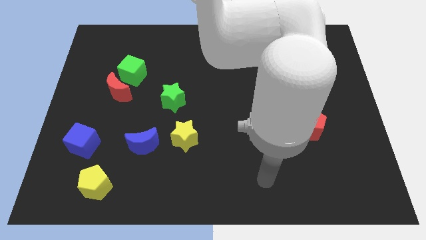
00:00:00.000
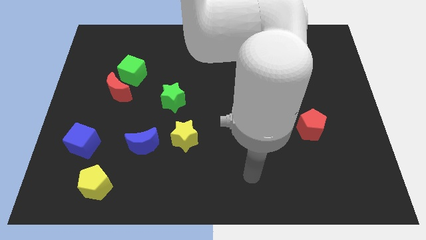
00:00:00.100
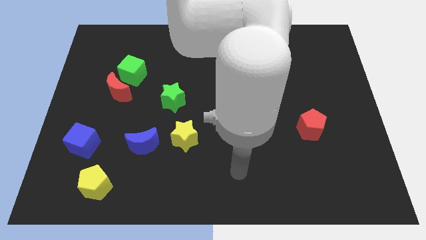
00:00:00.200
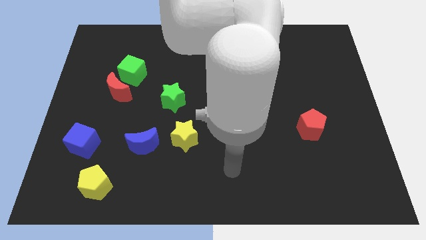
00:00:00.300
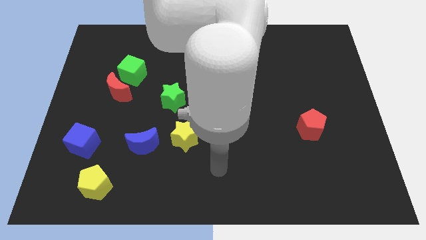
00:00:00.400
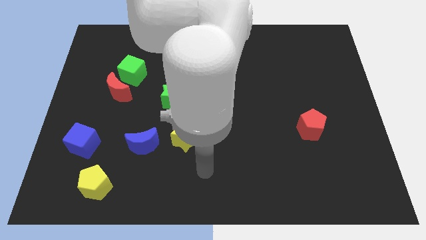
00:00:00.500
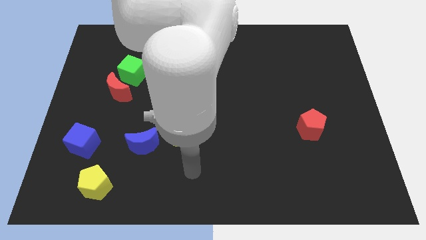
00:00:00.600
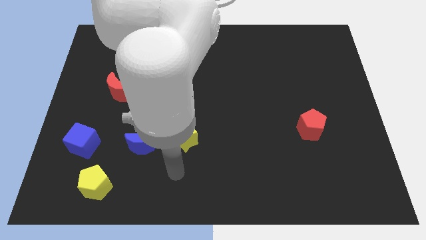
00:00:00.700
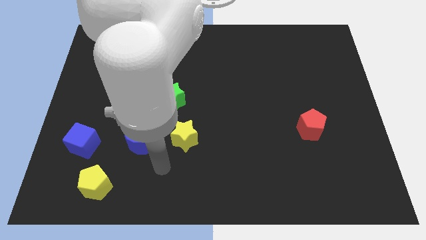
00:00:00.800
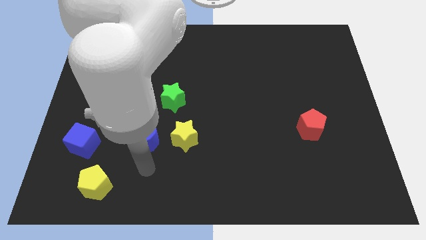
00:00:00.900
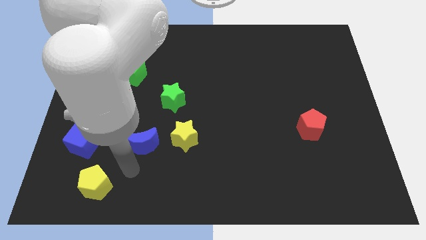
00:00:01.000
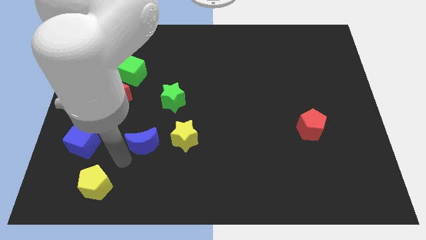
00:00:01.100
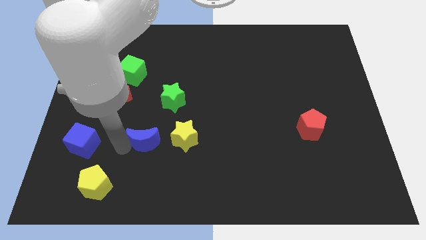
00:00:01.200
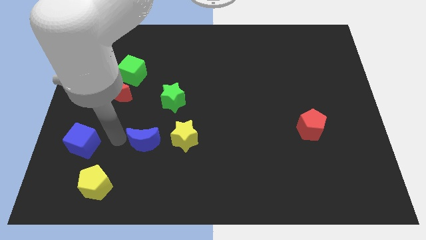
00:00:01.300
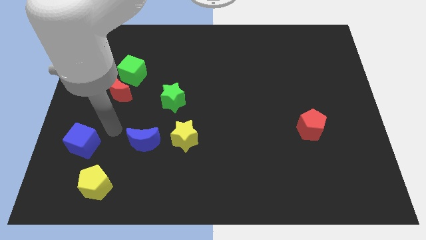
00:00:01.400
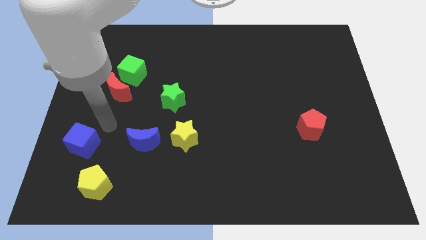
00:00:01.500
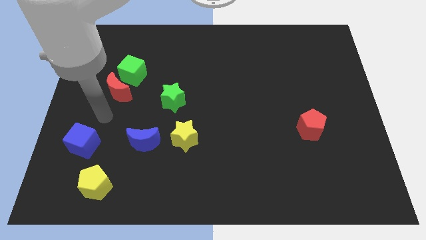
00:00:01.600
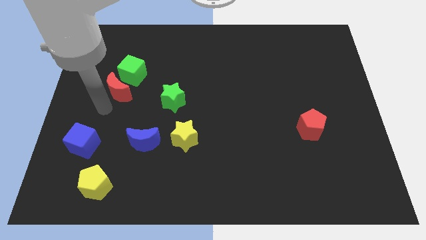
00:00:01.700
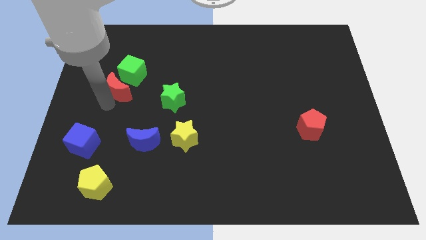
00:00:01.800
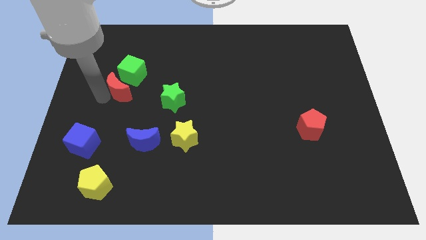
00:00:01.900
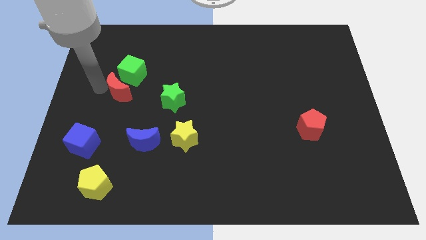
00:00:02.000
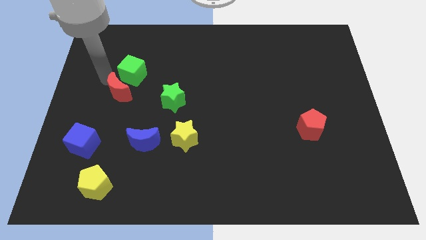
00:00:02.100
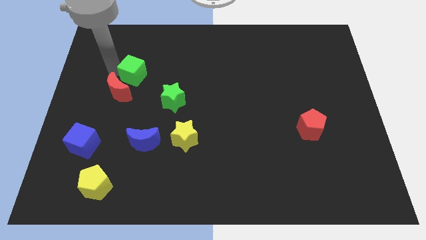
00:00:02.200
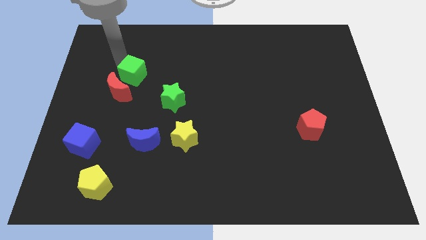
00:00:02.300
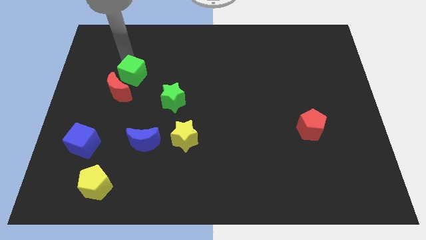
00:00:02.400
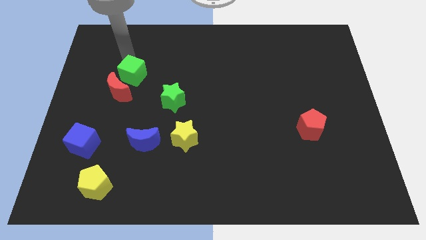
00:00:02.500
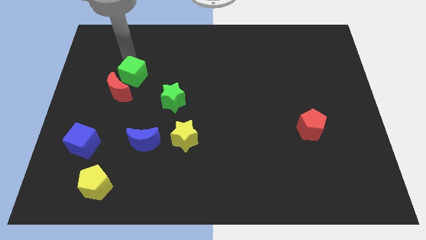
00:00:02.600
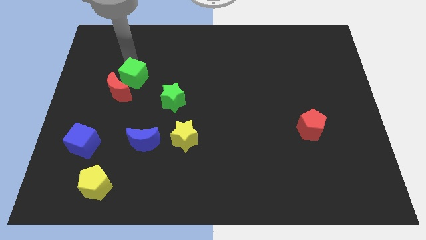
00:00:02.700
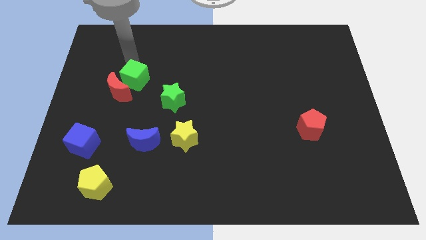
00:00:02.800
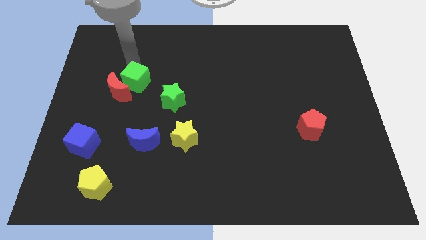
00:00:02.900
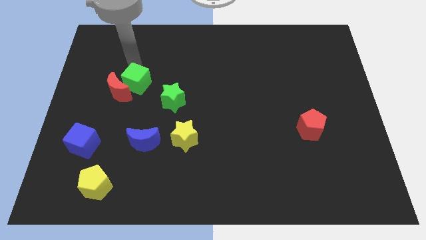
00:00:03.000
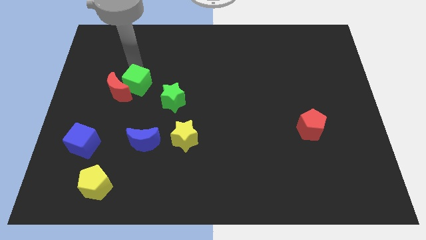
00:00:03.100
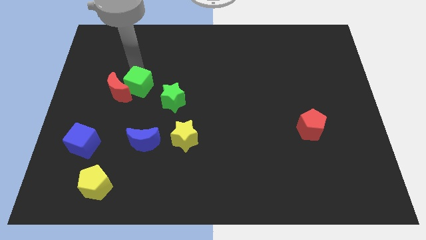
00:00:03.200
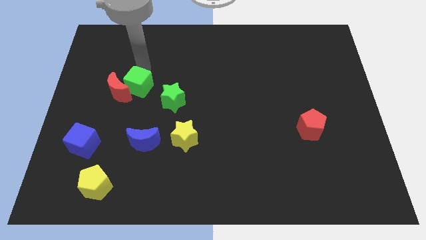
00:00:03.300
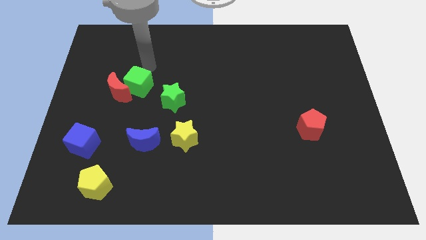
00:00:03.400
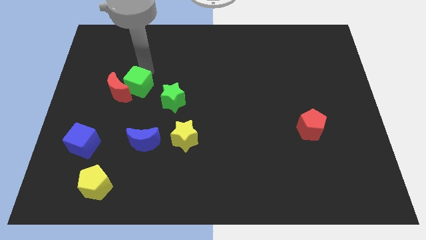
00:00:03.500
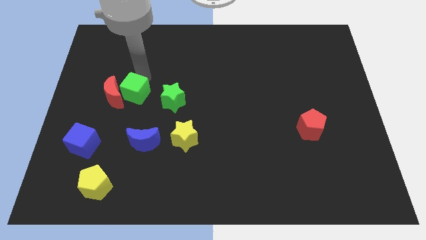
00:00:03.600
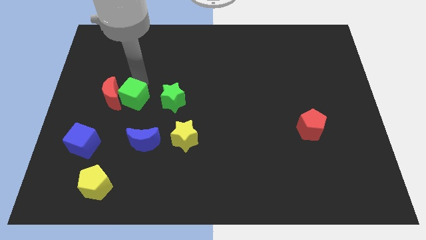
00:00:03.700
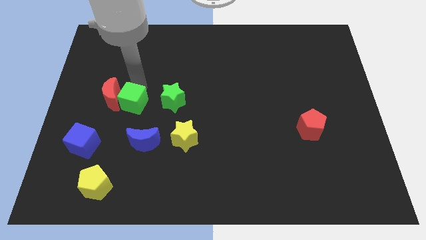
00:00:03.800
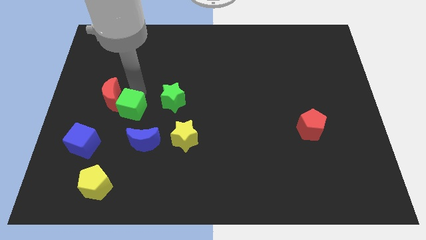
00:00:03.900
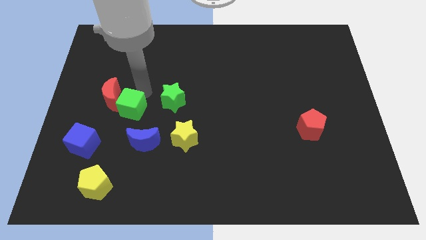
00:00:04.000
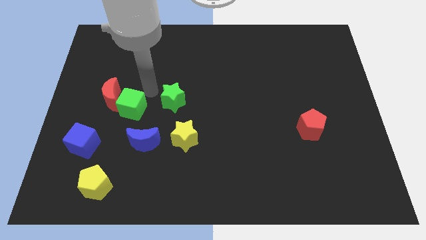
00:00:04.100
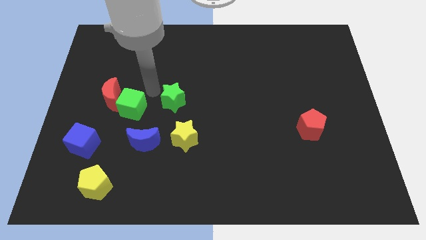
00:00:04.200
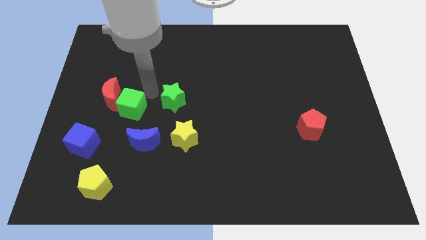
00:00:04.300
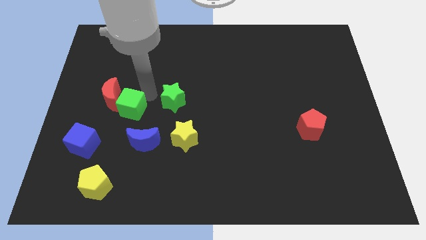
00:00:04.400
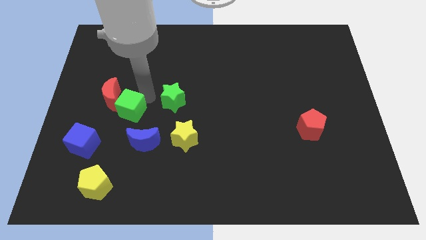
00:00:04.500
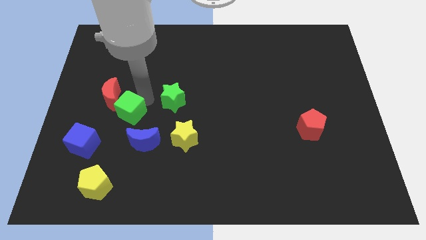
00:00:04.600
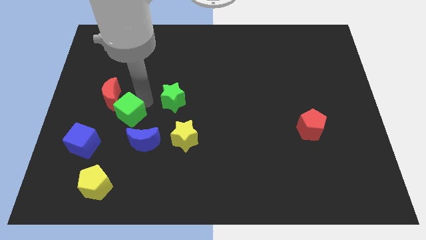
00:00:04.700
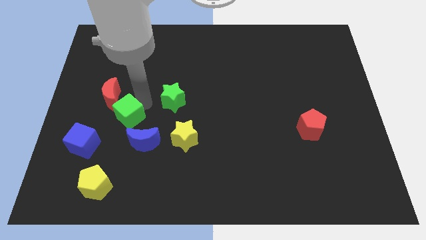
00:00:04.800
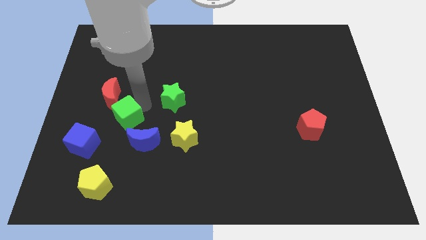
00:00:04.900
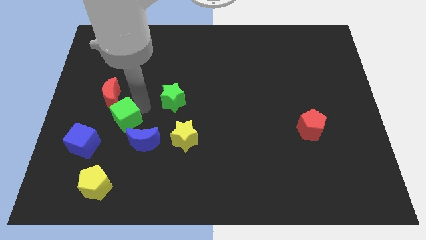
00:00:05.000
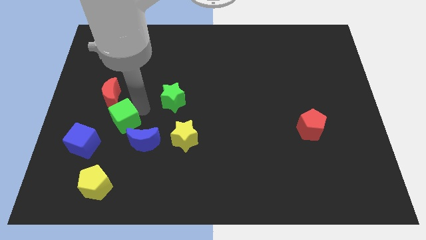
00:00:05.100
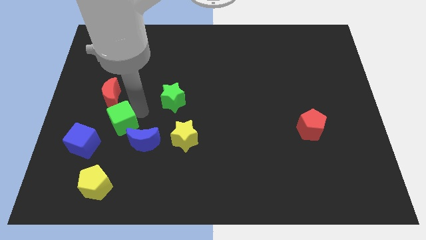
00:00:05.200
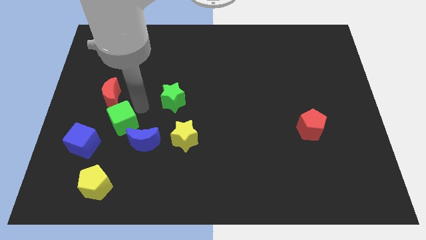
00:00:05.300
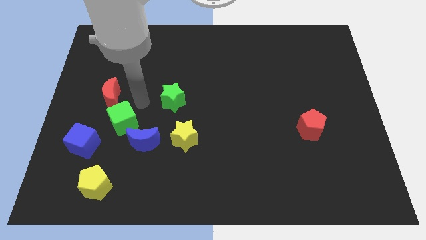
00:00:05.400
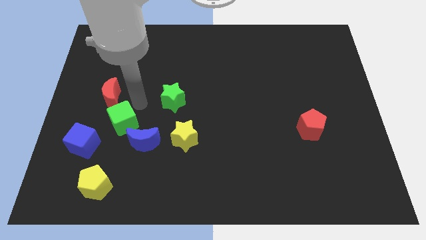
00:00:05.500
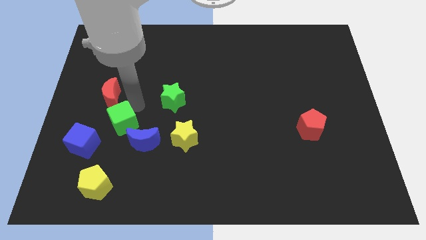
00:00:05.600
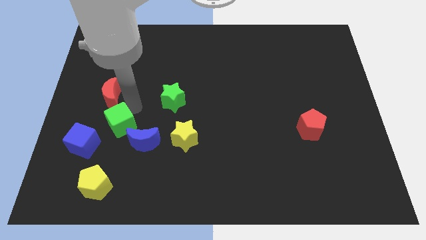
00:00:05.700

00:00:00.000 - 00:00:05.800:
put the green cube to the top of the yellow pentagon

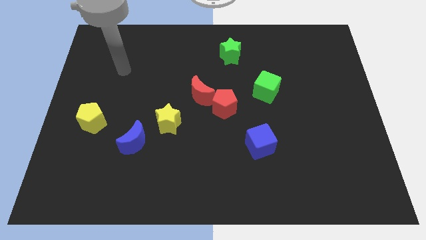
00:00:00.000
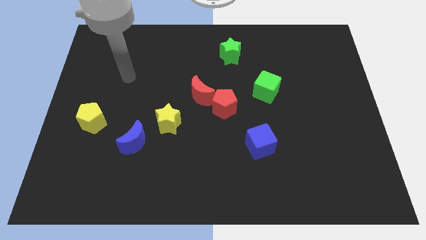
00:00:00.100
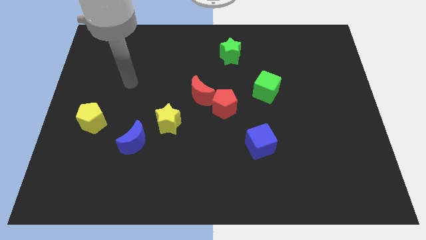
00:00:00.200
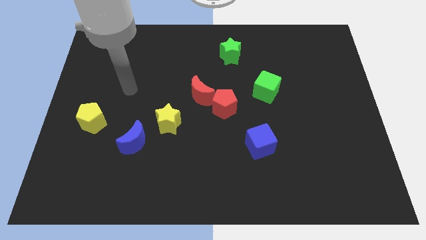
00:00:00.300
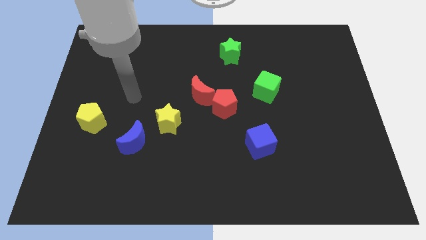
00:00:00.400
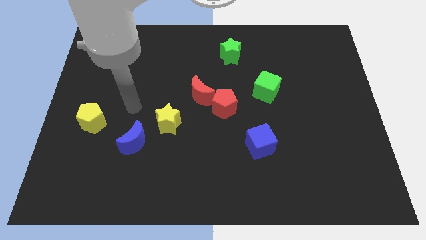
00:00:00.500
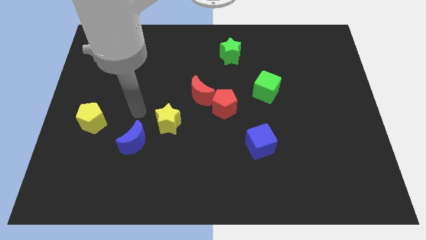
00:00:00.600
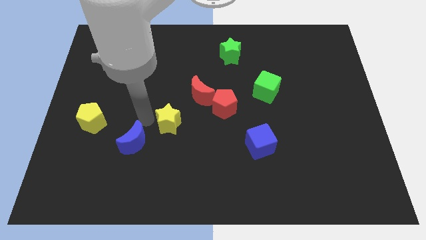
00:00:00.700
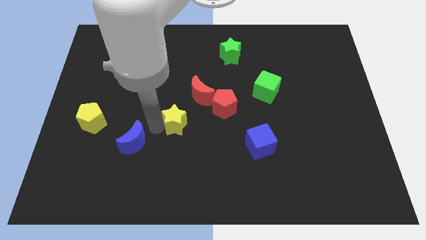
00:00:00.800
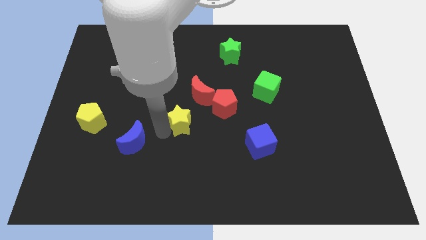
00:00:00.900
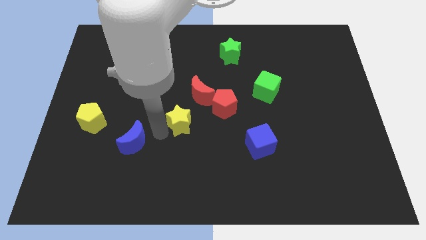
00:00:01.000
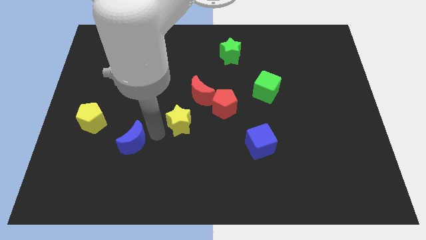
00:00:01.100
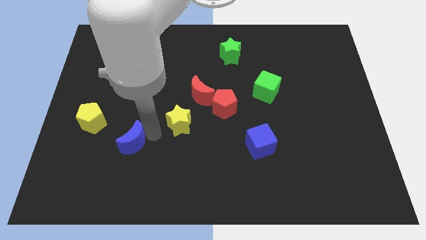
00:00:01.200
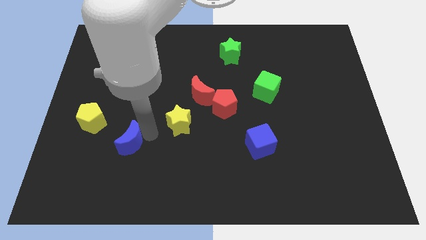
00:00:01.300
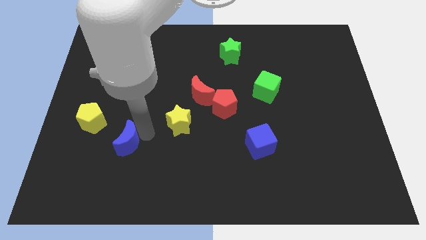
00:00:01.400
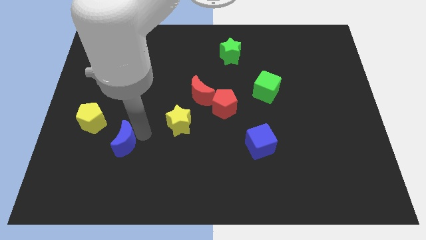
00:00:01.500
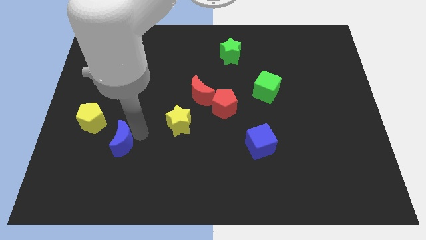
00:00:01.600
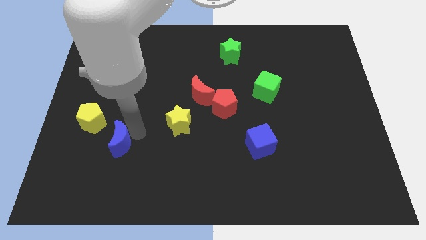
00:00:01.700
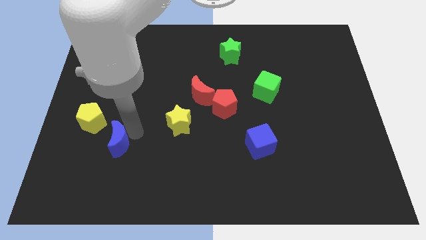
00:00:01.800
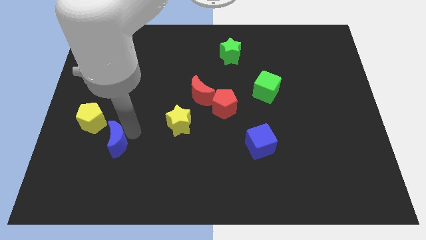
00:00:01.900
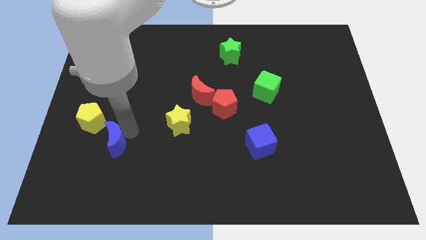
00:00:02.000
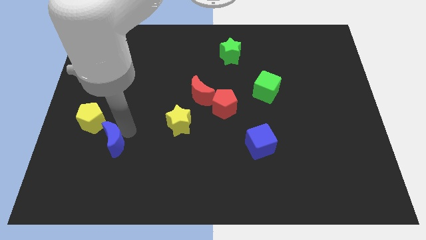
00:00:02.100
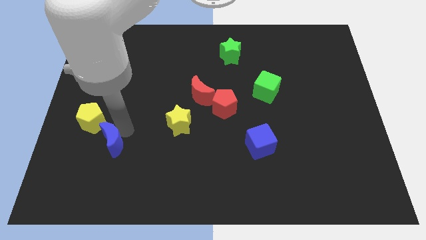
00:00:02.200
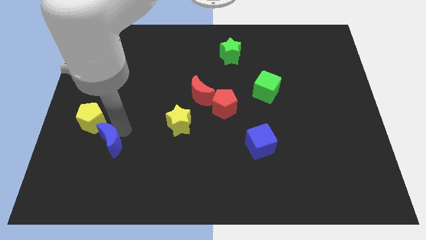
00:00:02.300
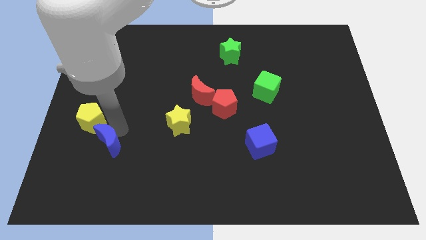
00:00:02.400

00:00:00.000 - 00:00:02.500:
move the blue moon to the bottom side of the yellow pentagon
